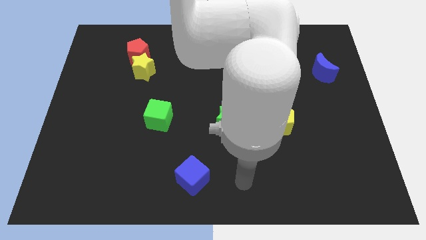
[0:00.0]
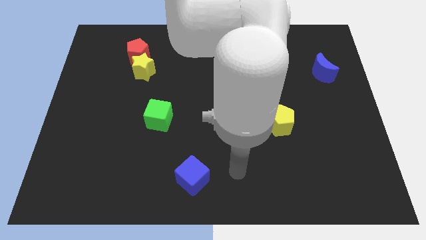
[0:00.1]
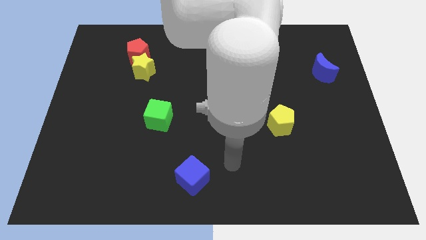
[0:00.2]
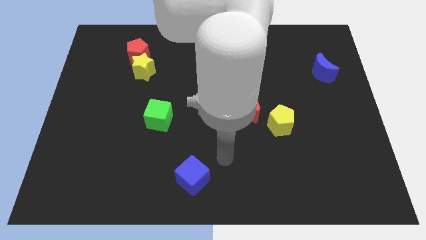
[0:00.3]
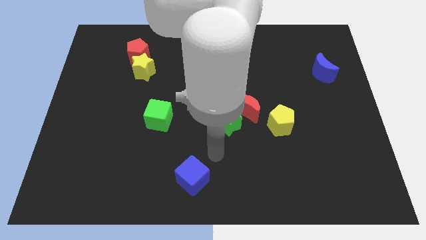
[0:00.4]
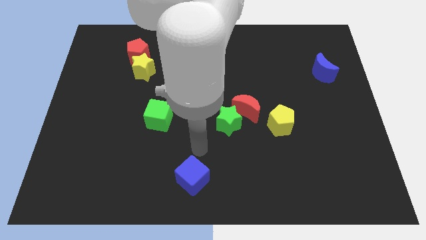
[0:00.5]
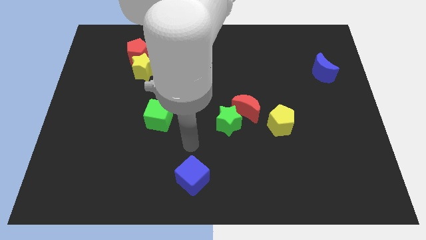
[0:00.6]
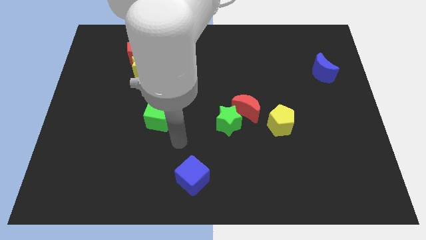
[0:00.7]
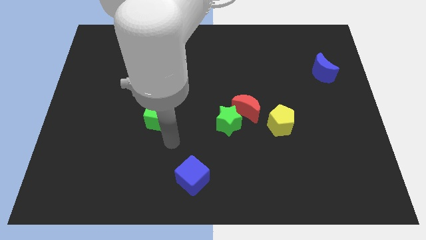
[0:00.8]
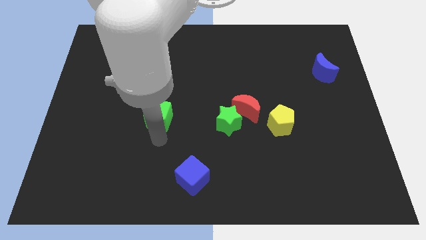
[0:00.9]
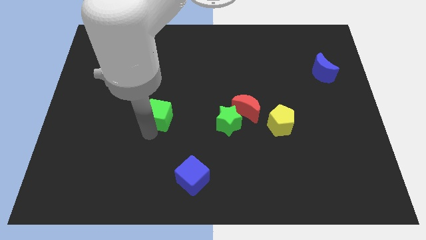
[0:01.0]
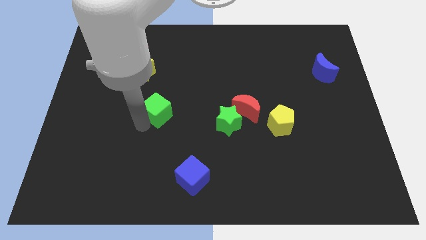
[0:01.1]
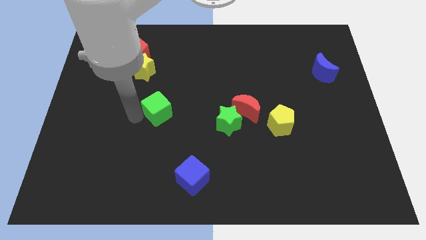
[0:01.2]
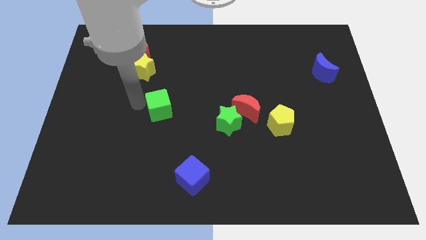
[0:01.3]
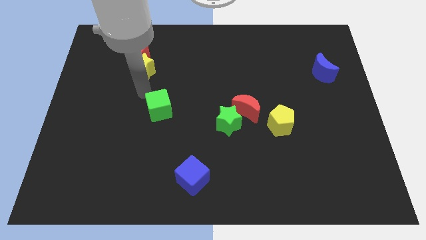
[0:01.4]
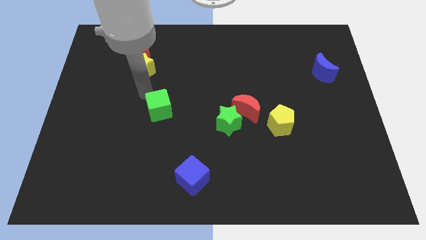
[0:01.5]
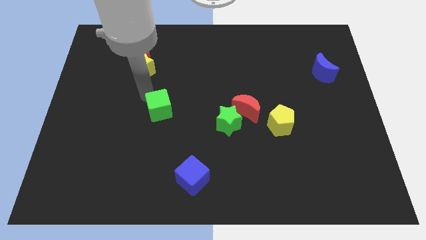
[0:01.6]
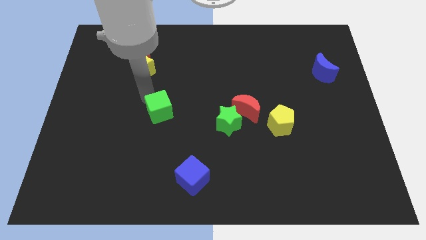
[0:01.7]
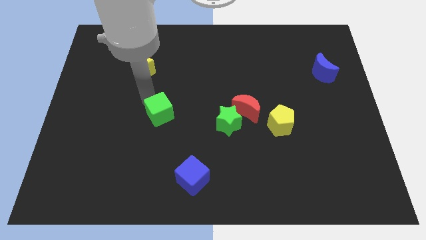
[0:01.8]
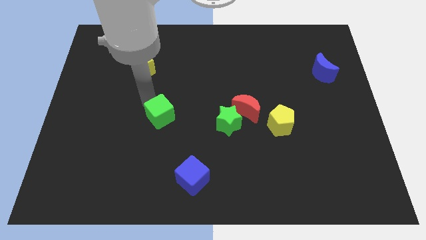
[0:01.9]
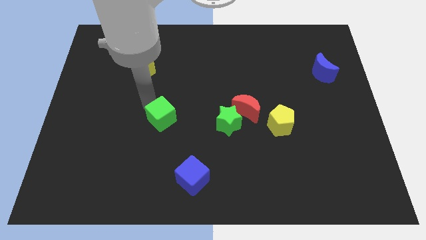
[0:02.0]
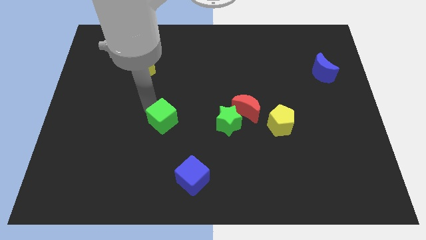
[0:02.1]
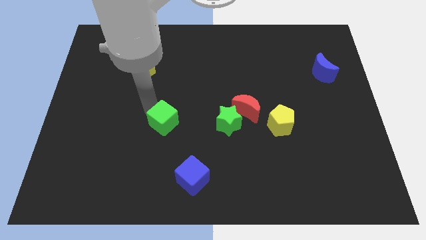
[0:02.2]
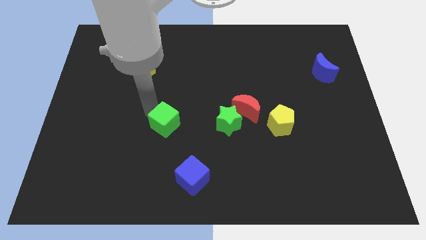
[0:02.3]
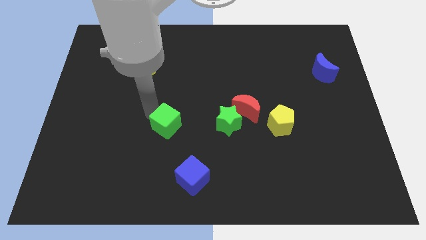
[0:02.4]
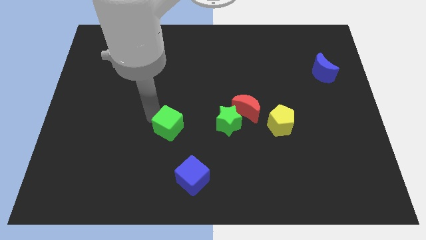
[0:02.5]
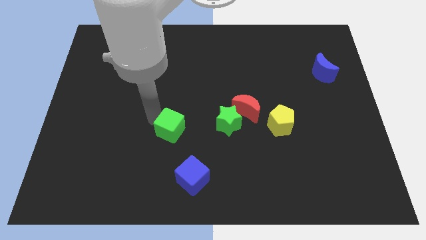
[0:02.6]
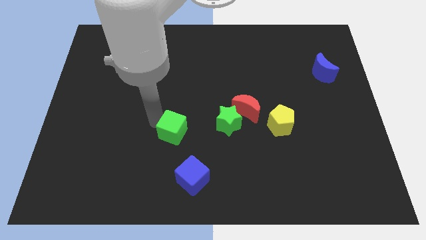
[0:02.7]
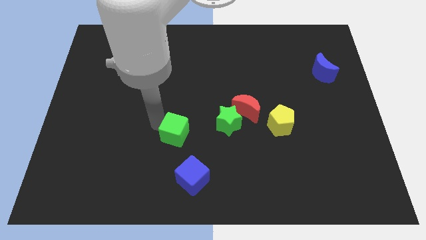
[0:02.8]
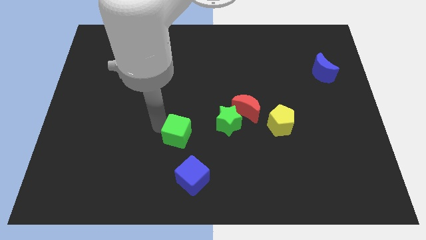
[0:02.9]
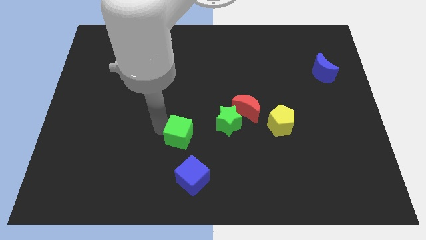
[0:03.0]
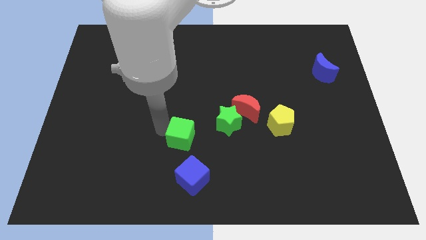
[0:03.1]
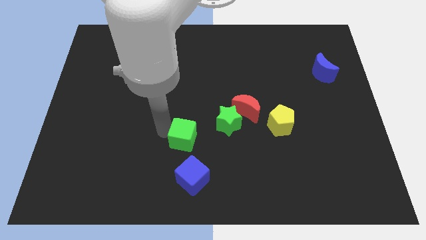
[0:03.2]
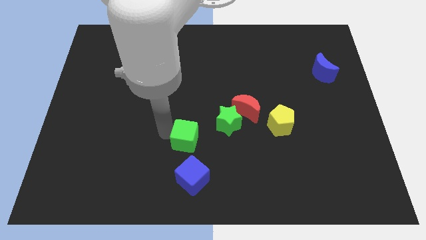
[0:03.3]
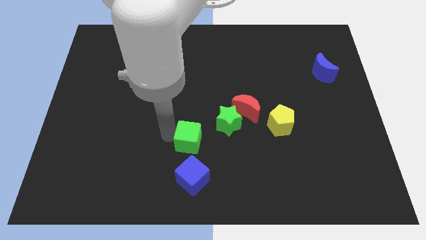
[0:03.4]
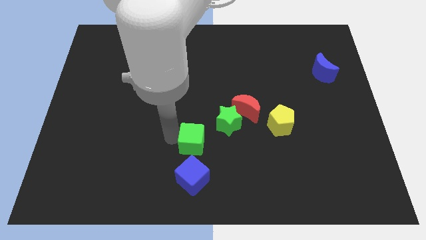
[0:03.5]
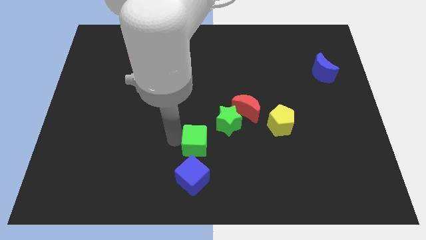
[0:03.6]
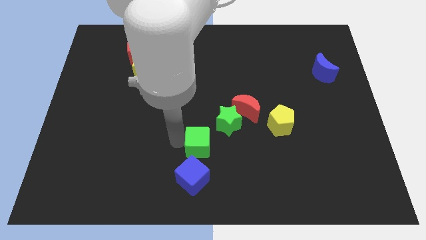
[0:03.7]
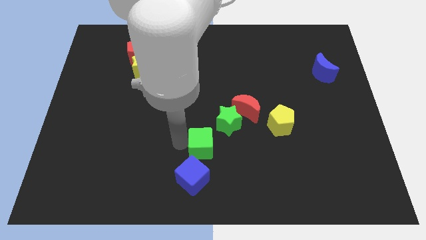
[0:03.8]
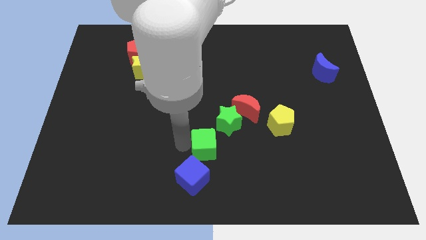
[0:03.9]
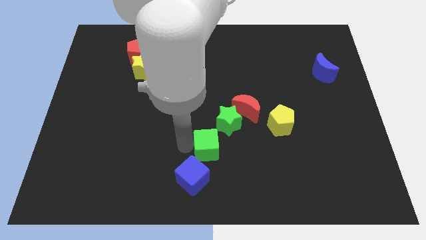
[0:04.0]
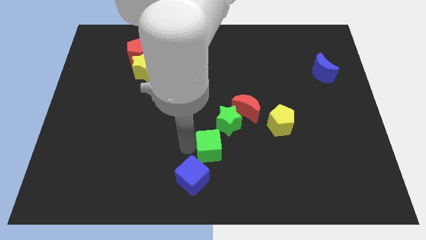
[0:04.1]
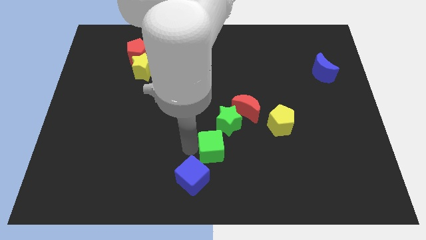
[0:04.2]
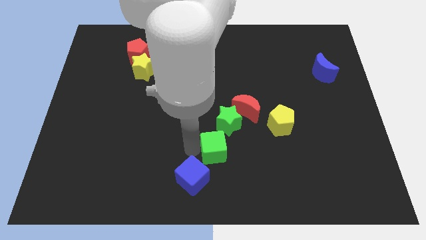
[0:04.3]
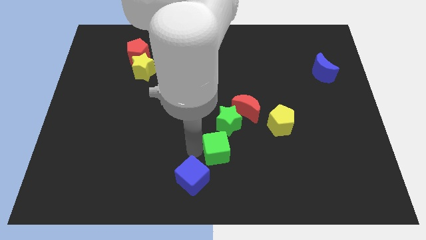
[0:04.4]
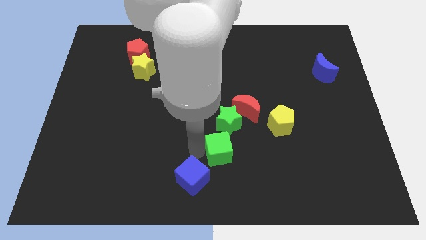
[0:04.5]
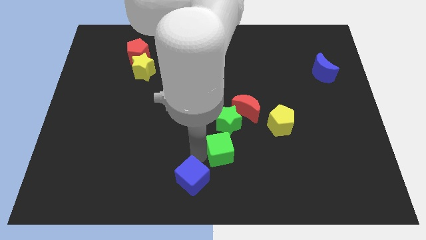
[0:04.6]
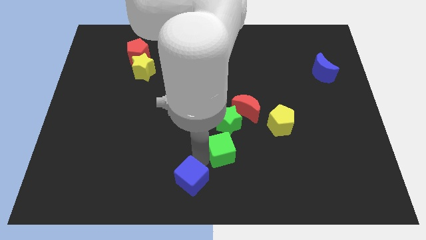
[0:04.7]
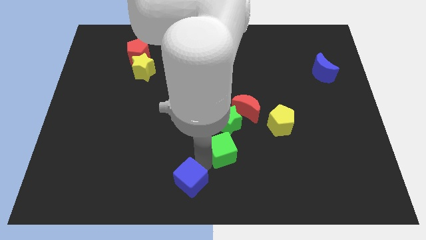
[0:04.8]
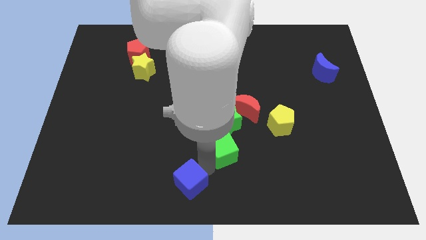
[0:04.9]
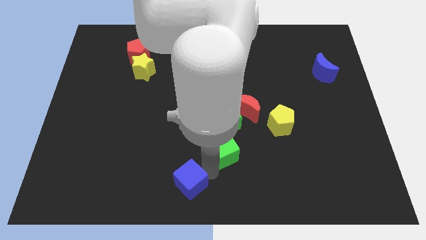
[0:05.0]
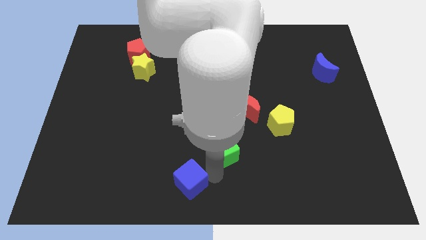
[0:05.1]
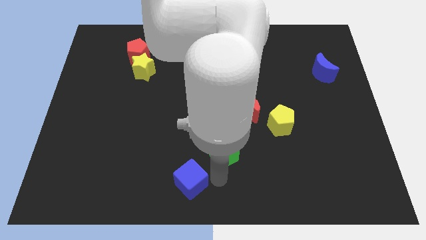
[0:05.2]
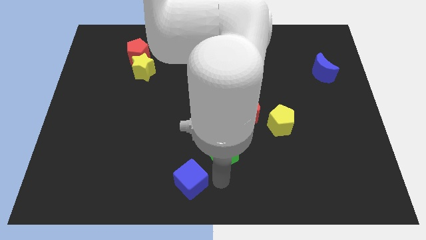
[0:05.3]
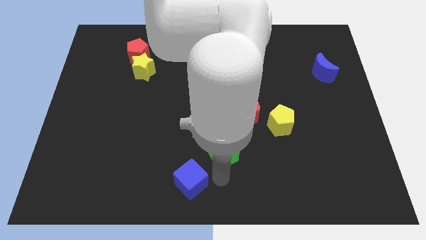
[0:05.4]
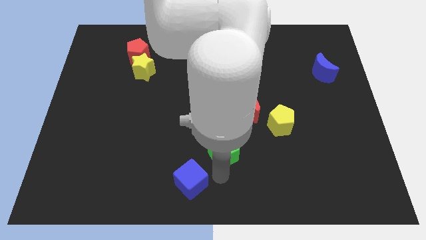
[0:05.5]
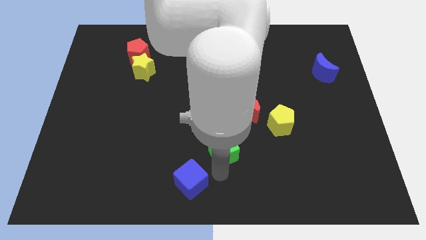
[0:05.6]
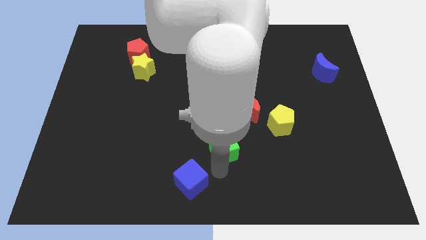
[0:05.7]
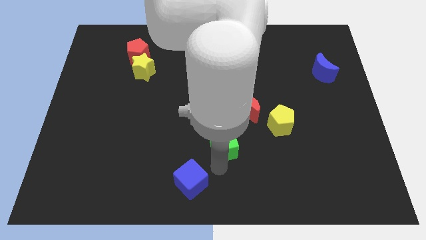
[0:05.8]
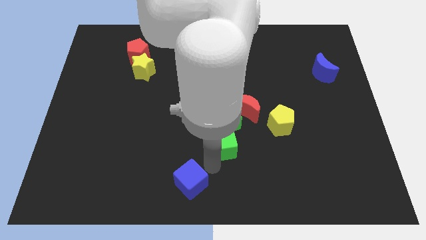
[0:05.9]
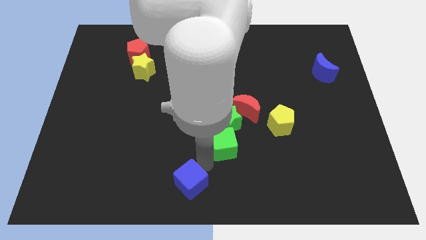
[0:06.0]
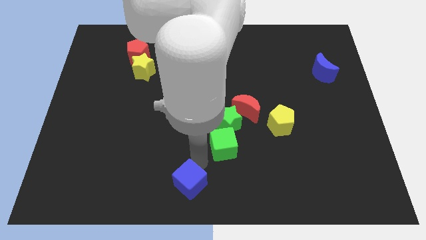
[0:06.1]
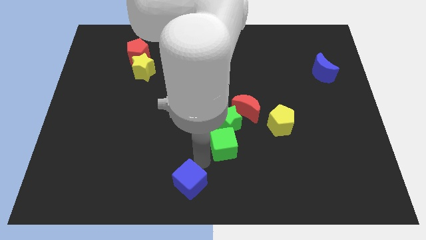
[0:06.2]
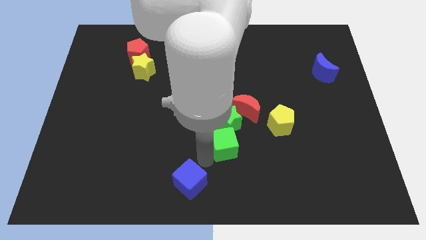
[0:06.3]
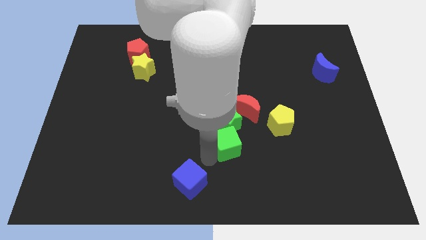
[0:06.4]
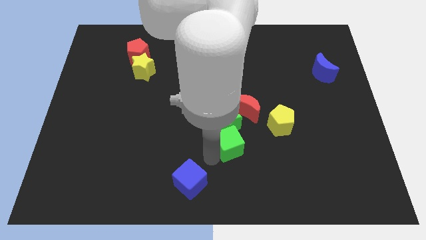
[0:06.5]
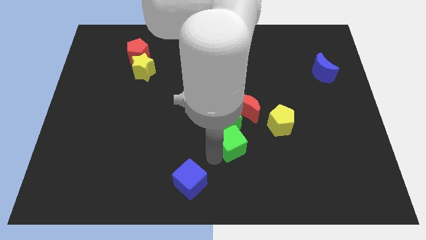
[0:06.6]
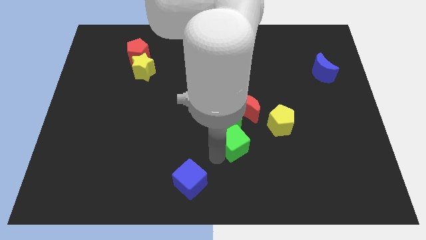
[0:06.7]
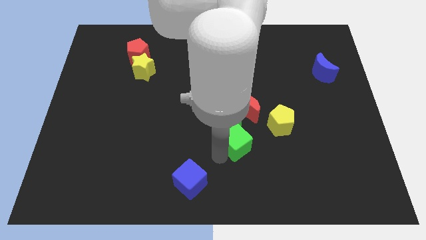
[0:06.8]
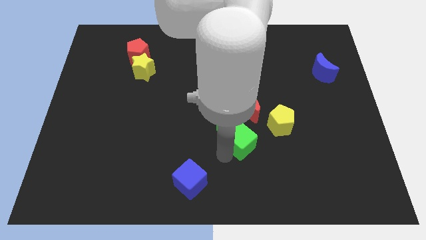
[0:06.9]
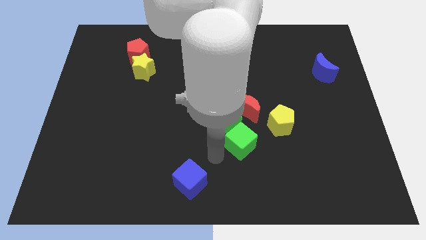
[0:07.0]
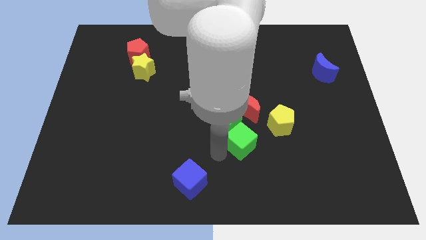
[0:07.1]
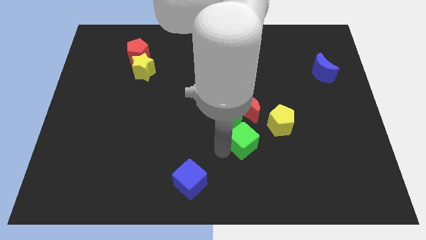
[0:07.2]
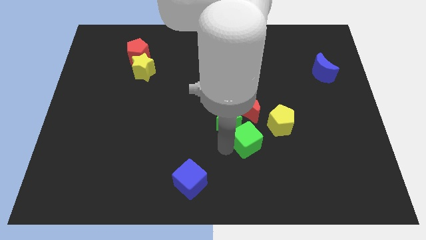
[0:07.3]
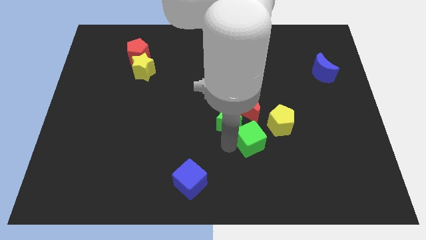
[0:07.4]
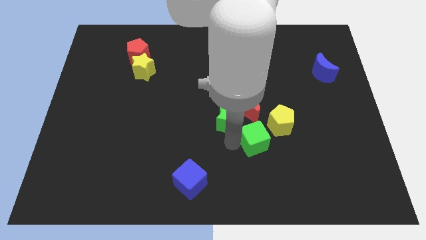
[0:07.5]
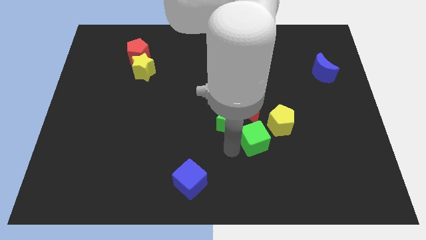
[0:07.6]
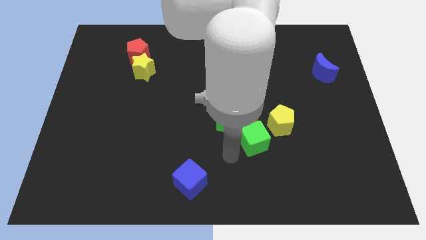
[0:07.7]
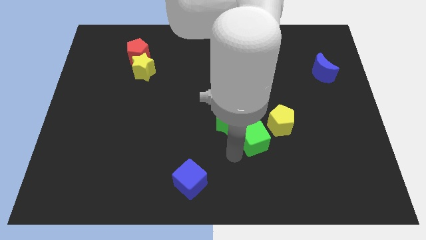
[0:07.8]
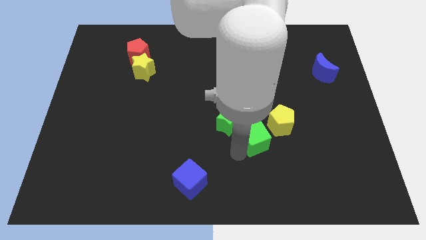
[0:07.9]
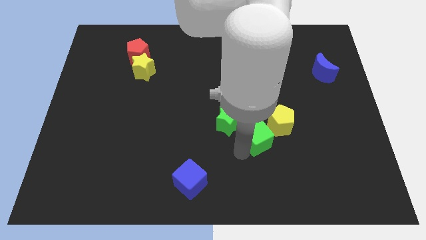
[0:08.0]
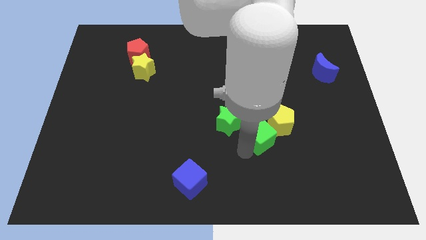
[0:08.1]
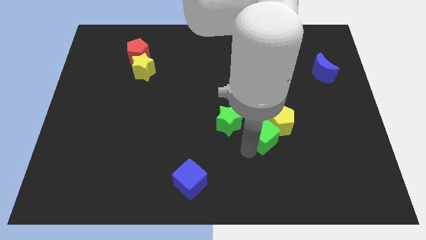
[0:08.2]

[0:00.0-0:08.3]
slide the green cube next to the yellow pentagon
